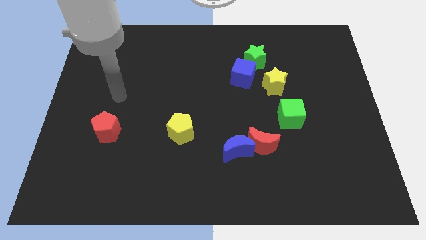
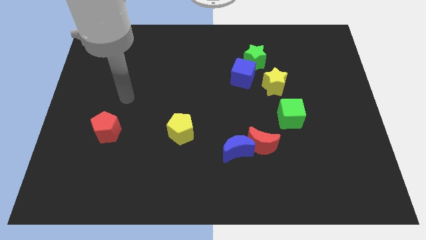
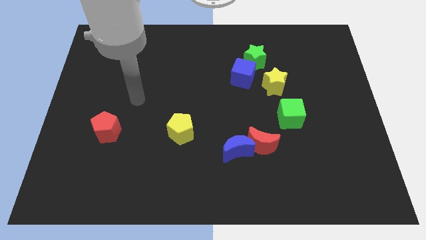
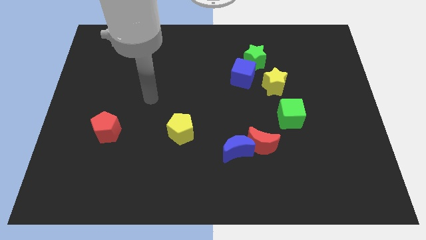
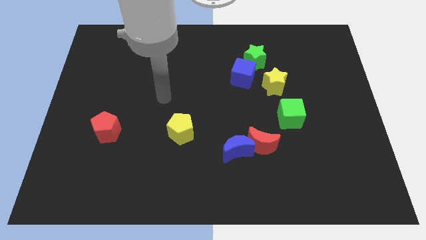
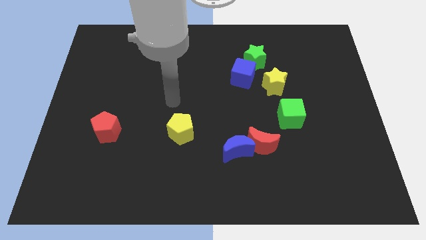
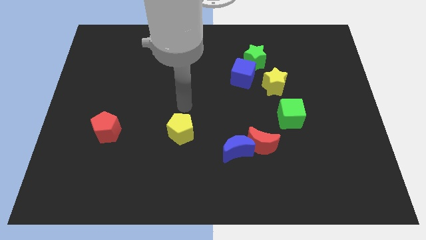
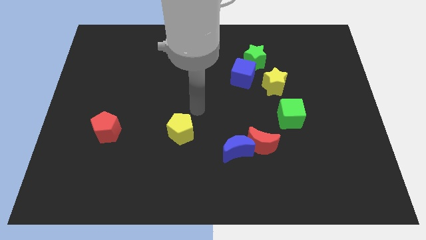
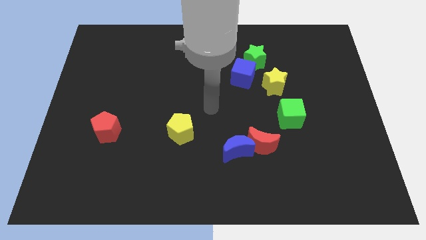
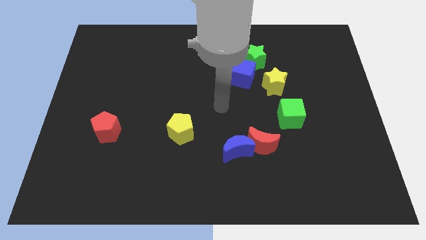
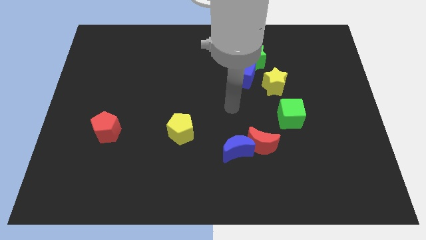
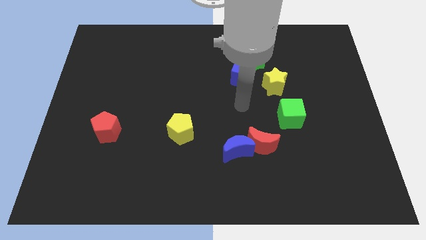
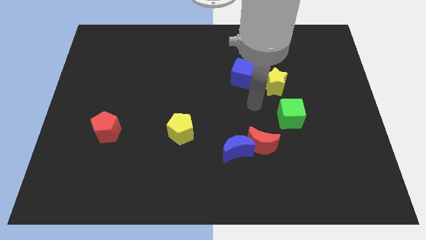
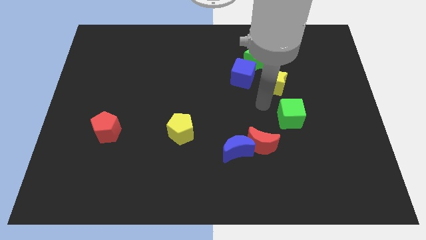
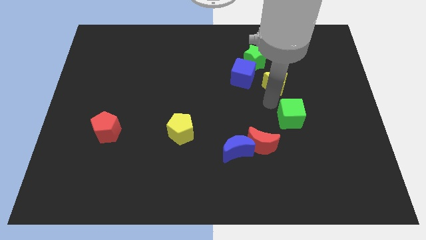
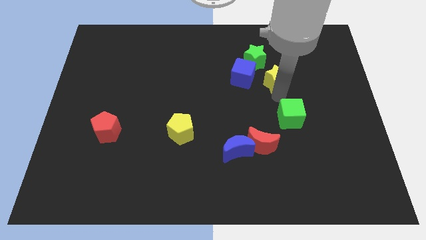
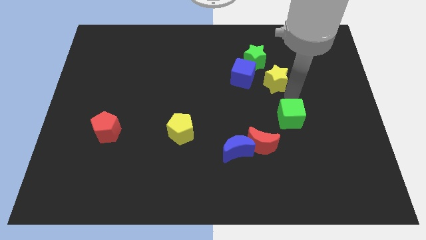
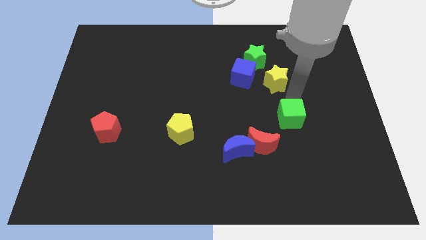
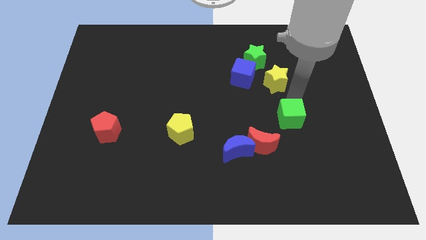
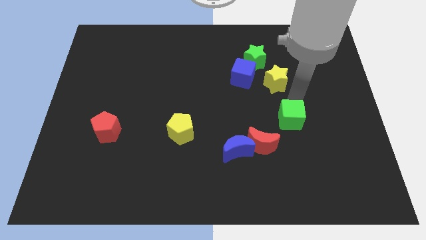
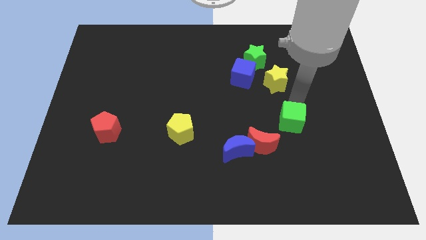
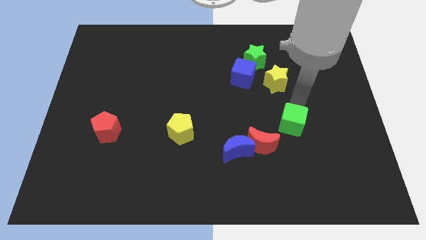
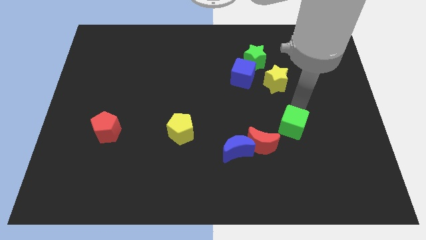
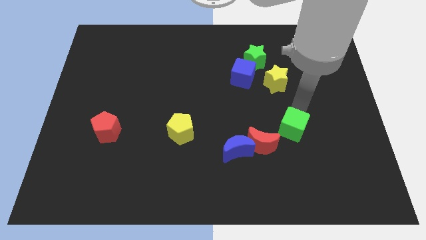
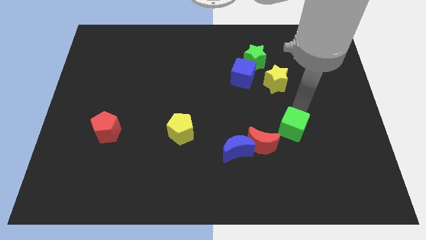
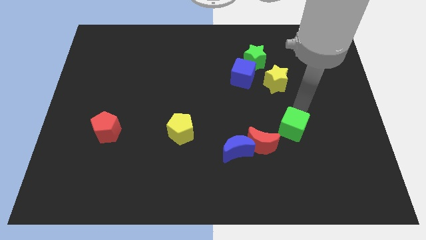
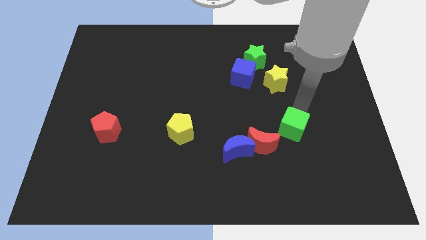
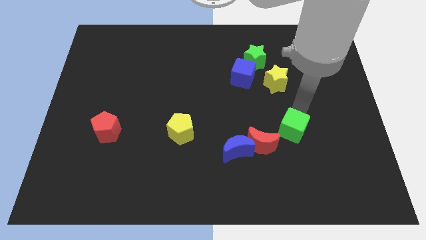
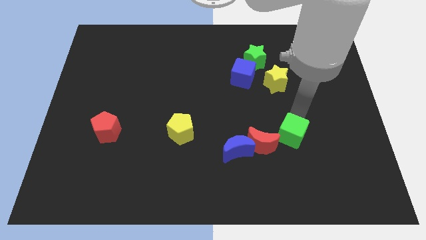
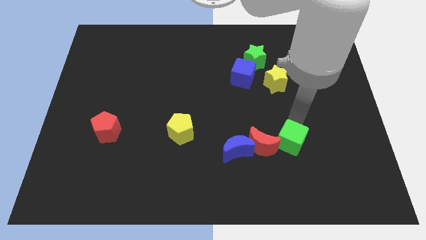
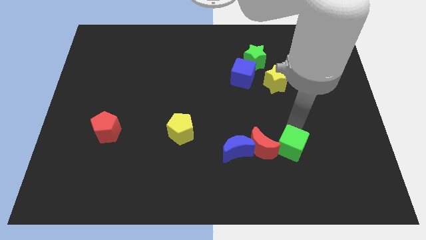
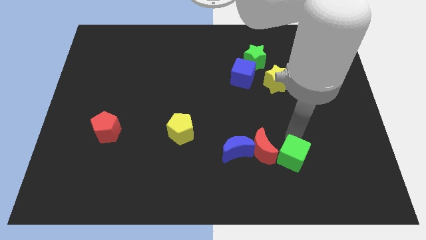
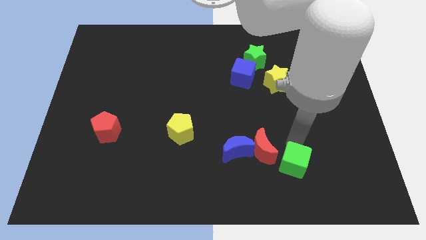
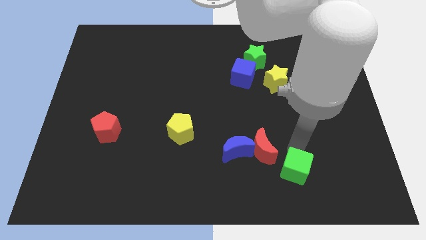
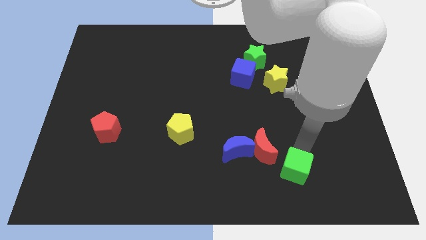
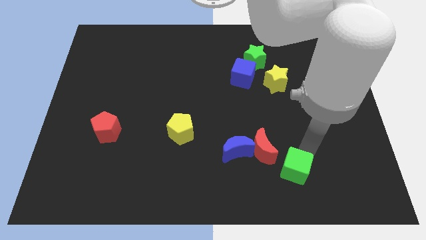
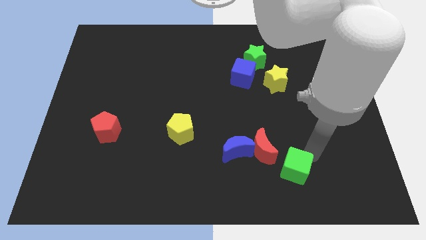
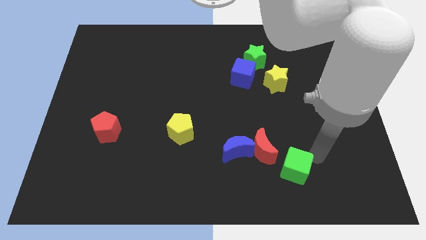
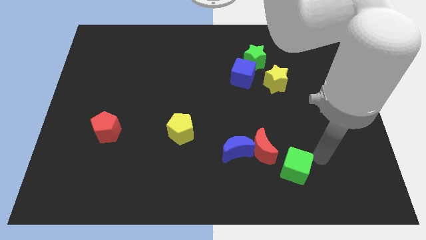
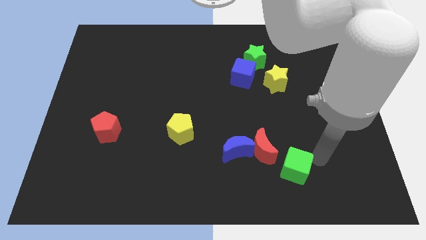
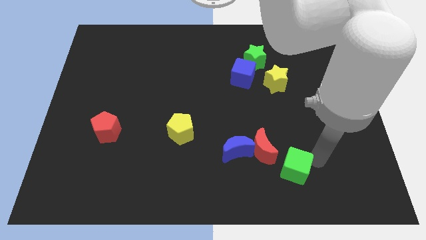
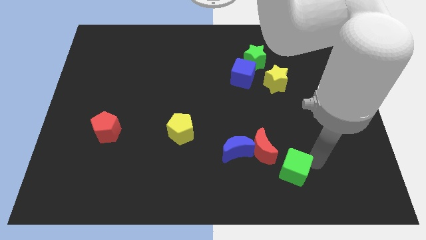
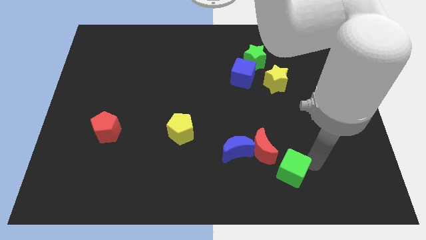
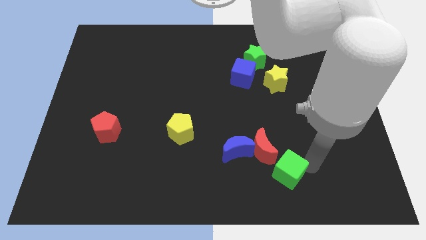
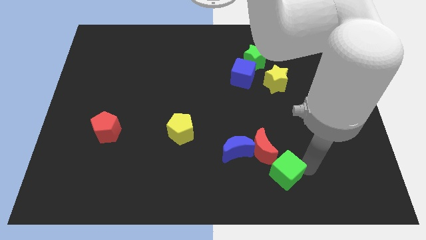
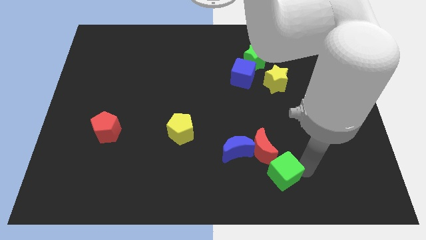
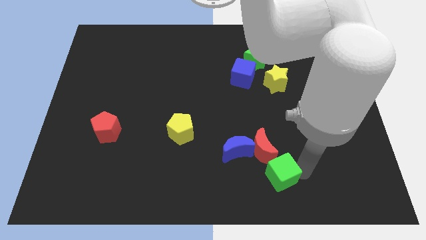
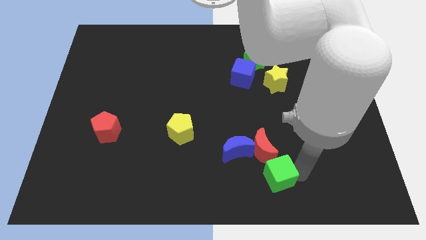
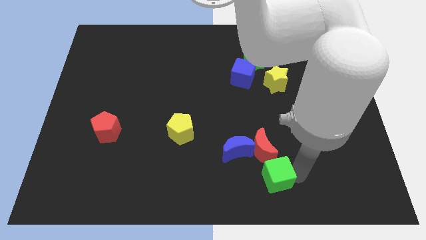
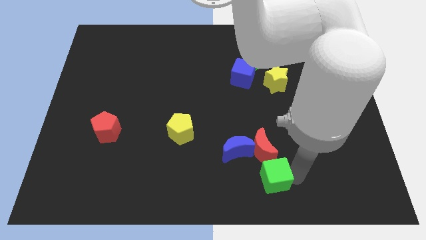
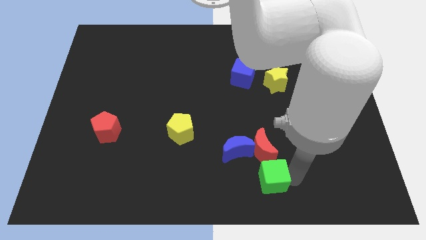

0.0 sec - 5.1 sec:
push the green cube to the bottom side

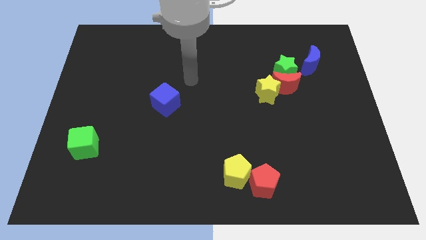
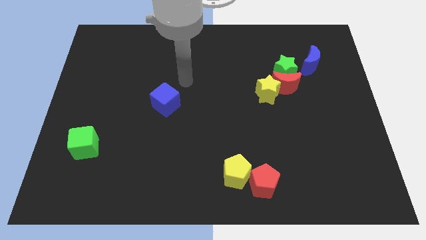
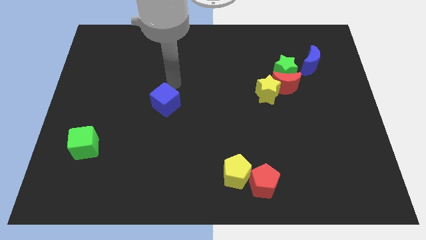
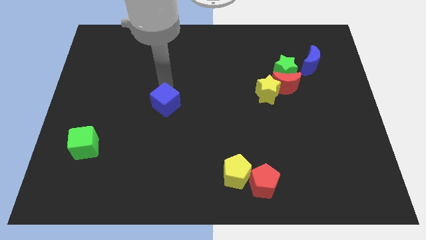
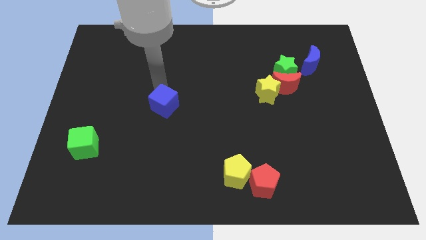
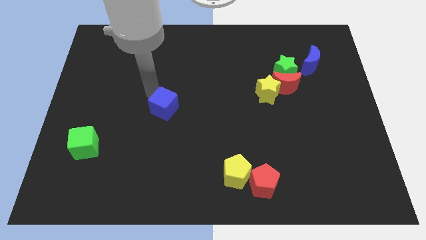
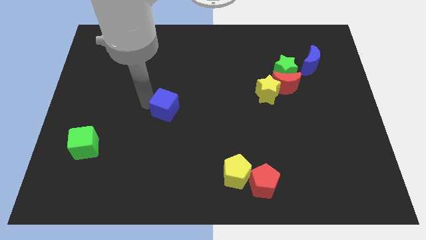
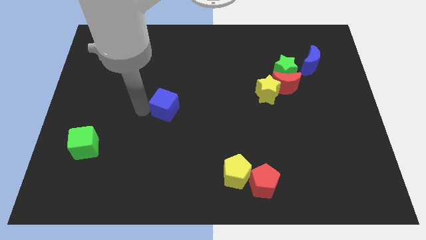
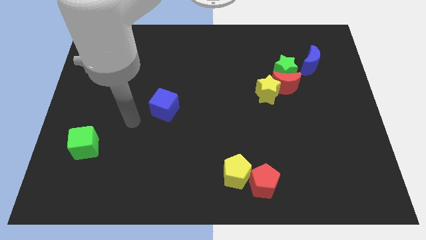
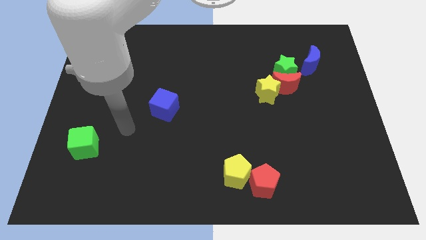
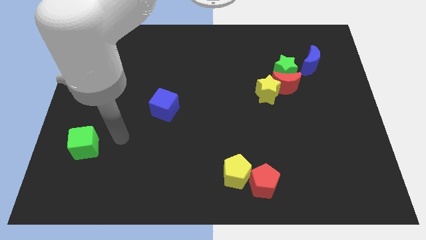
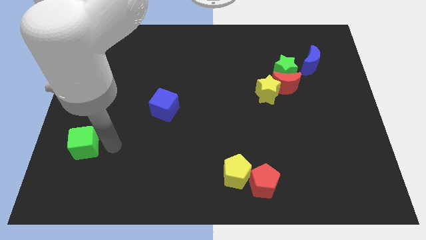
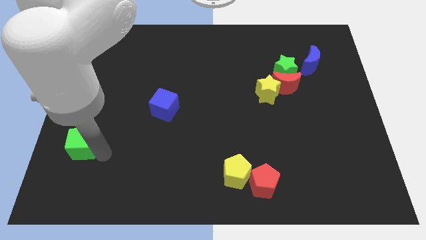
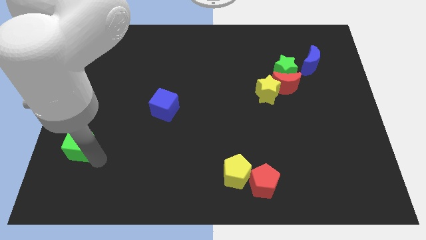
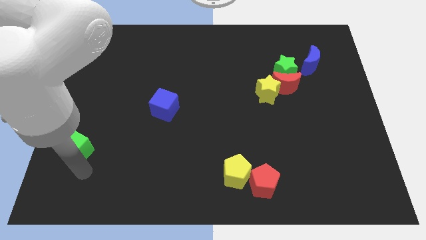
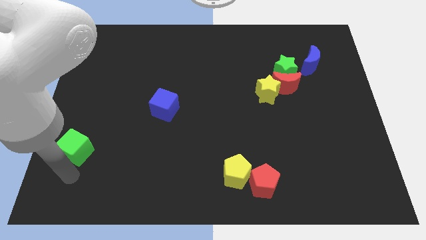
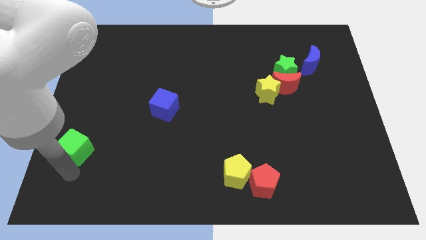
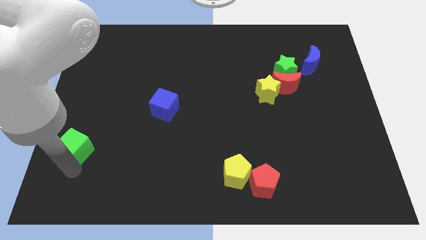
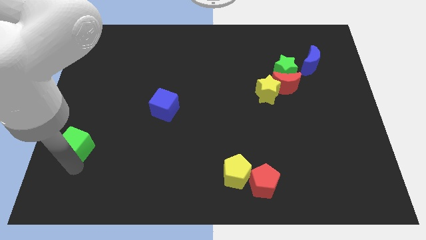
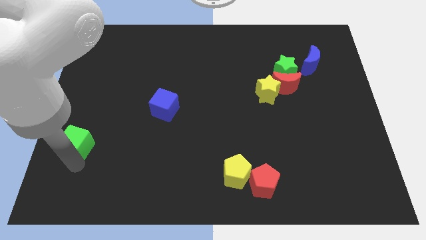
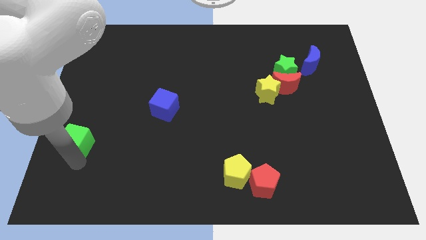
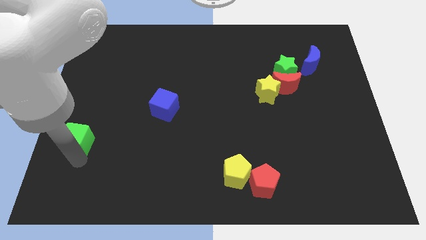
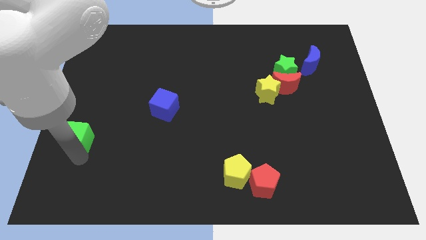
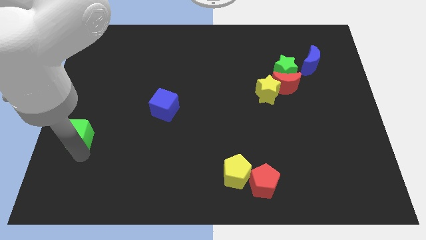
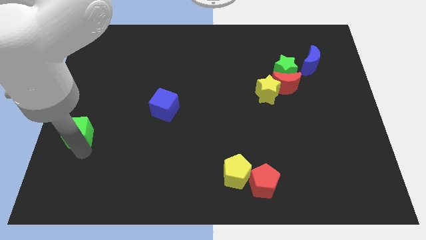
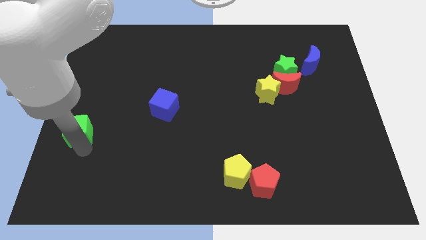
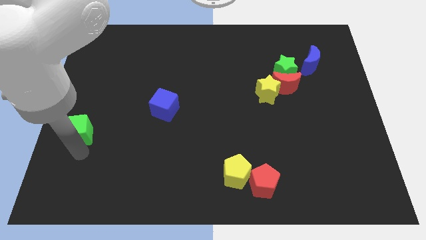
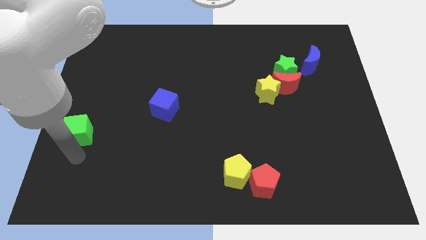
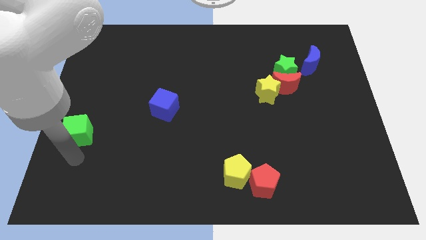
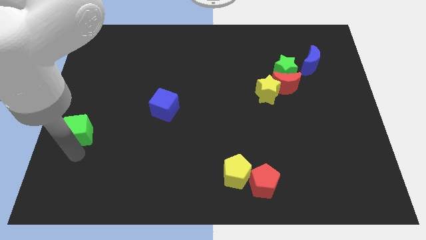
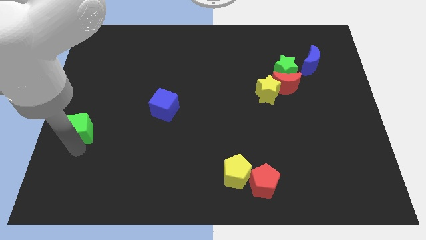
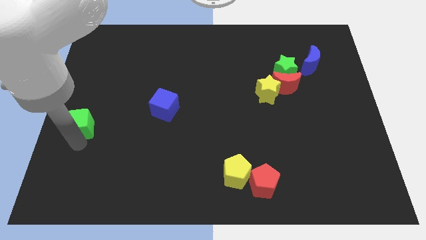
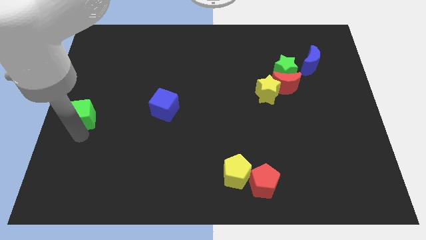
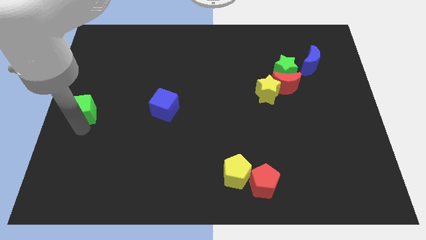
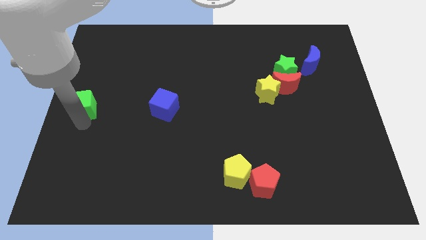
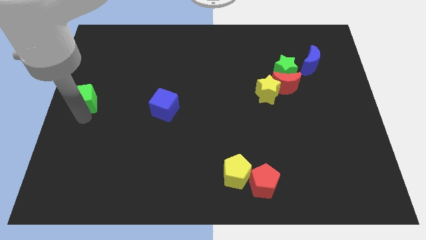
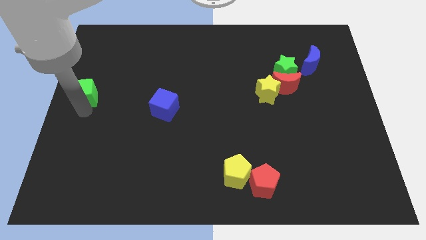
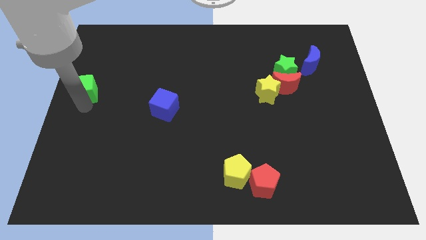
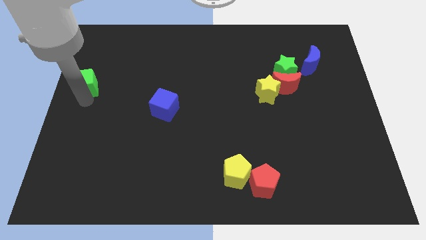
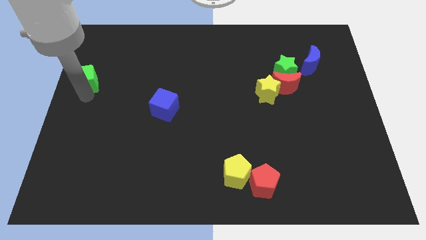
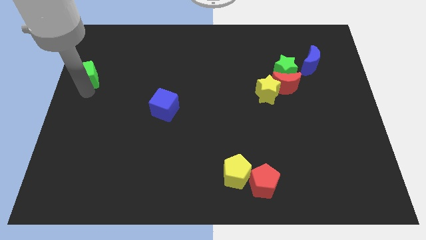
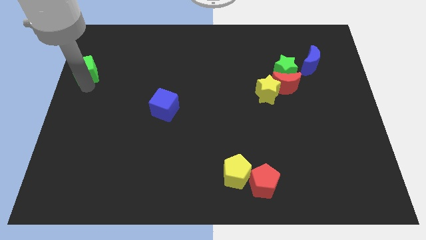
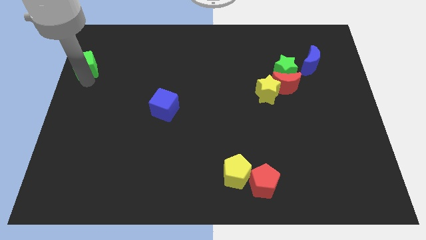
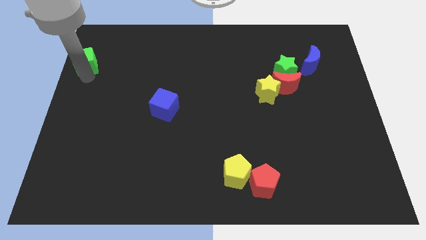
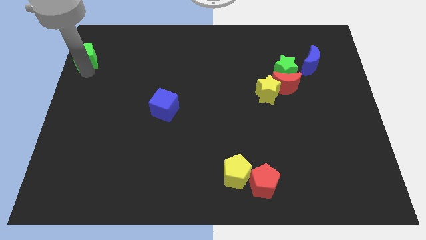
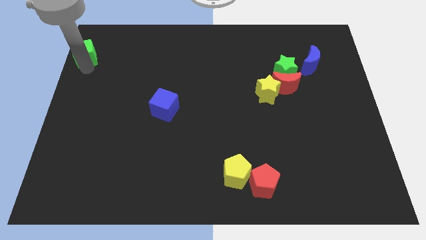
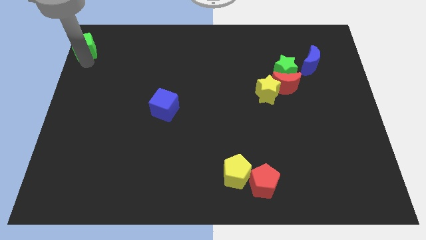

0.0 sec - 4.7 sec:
slide the green cube to the top left of the board
